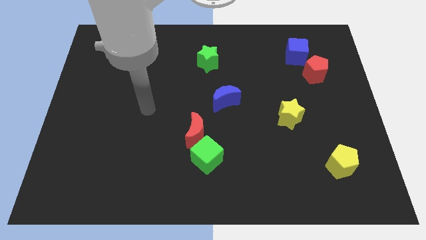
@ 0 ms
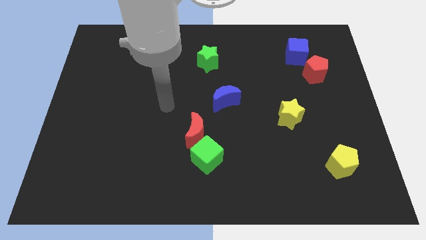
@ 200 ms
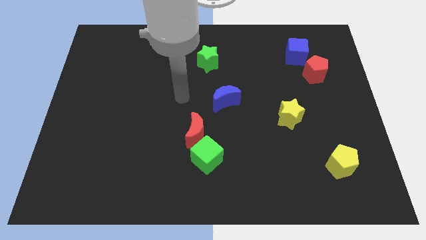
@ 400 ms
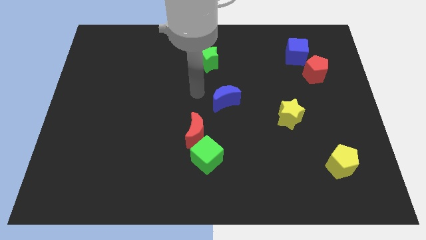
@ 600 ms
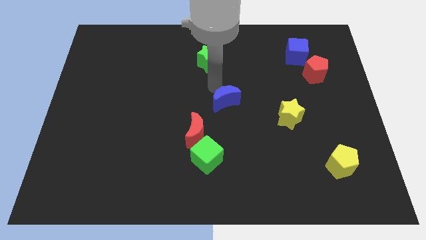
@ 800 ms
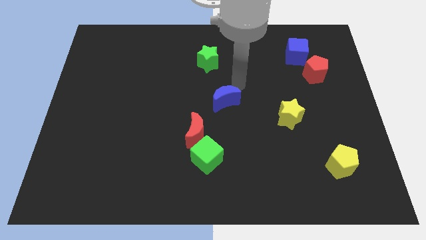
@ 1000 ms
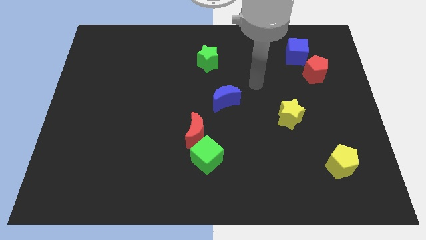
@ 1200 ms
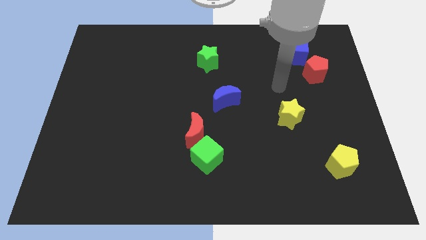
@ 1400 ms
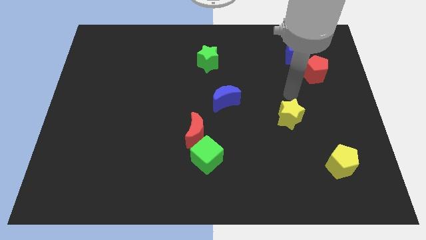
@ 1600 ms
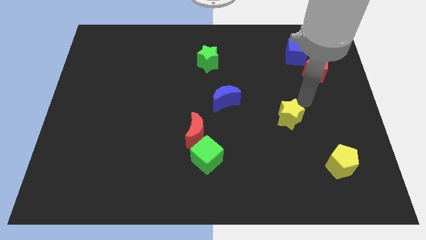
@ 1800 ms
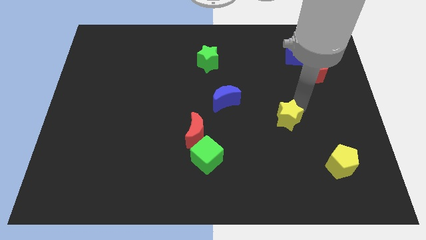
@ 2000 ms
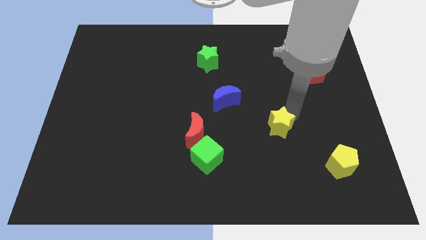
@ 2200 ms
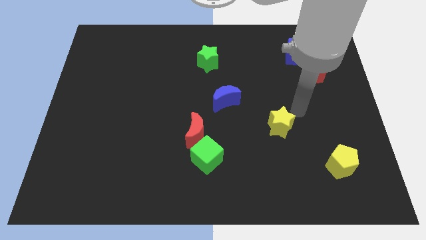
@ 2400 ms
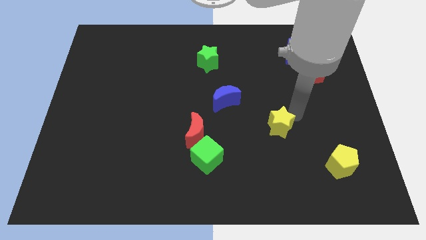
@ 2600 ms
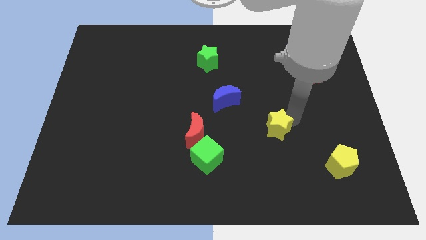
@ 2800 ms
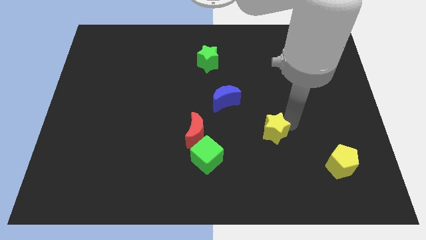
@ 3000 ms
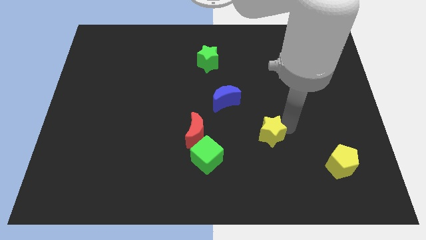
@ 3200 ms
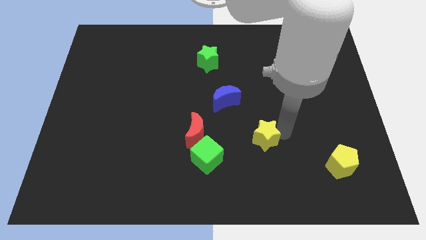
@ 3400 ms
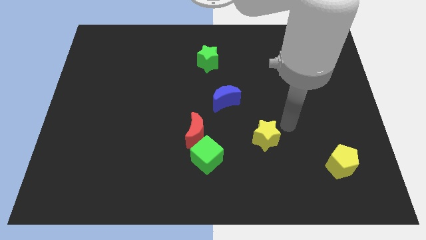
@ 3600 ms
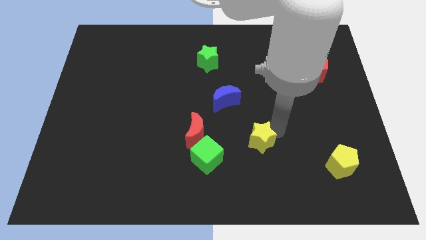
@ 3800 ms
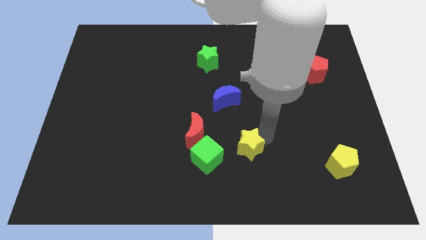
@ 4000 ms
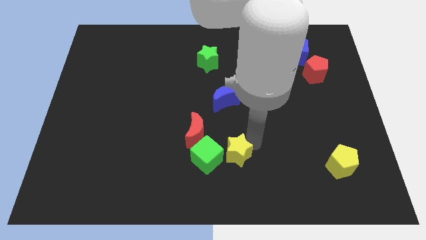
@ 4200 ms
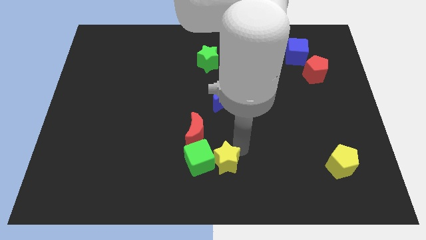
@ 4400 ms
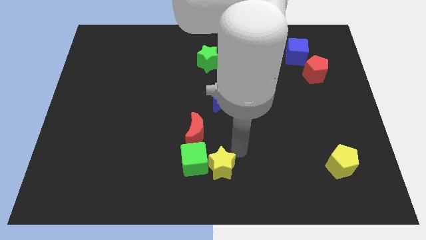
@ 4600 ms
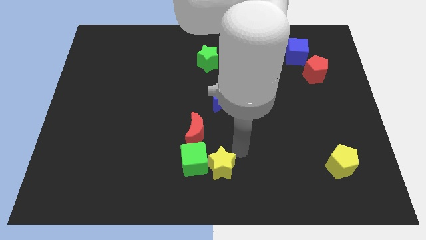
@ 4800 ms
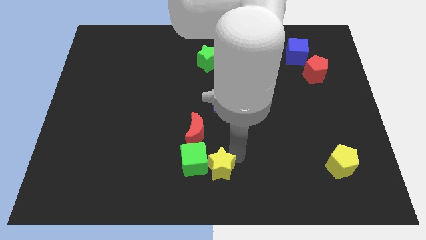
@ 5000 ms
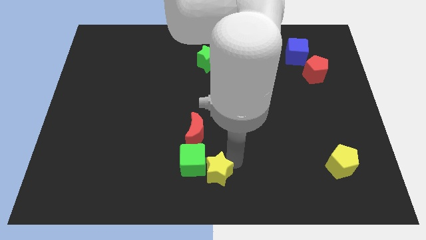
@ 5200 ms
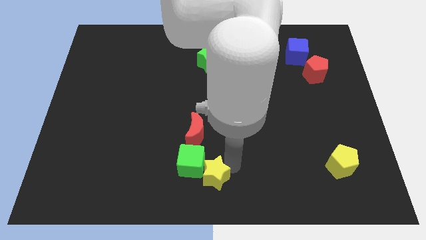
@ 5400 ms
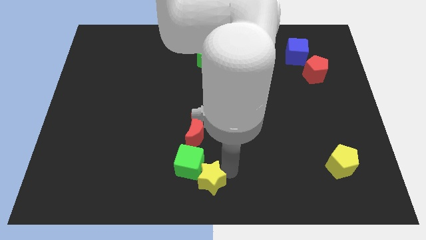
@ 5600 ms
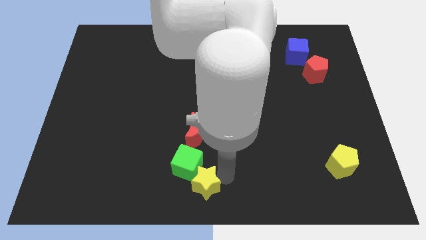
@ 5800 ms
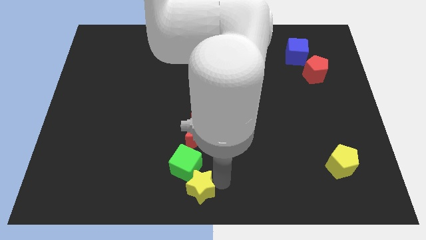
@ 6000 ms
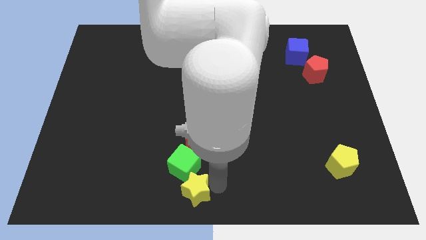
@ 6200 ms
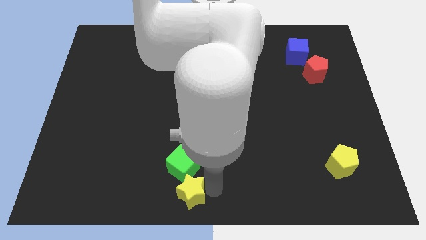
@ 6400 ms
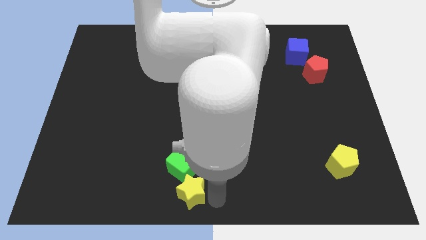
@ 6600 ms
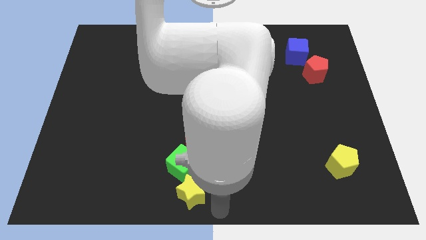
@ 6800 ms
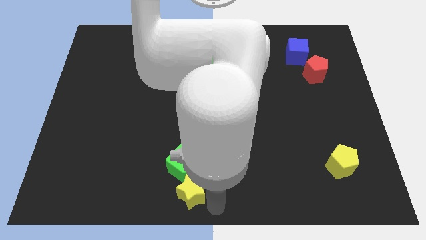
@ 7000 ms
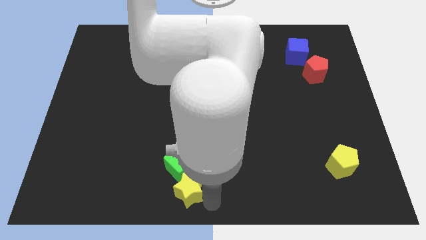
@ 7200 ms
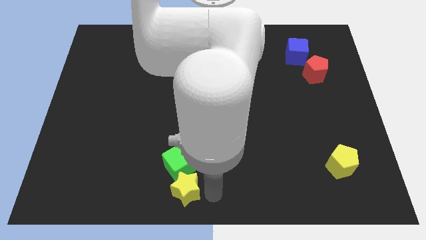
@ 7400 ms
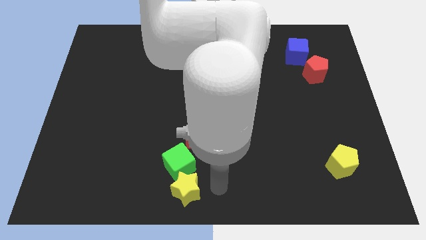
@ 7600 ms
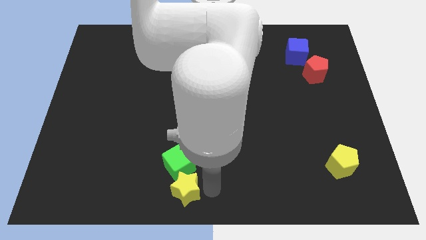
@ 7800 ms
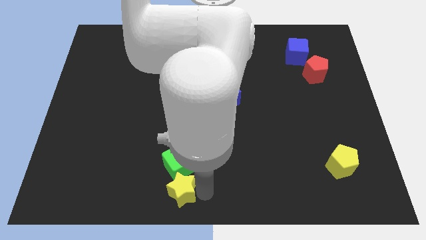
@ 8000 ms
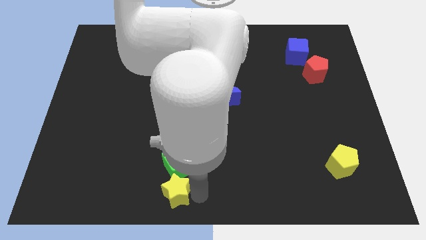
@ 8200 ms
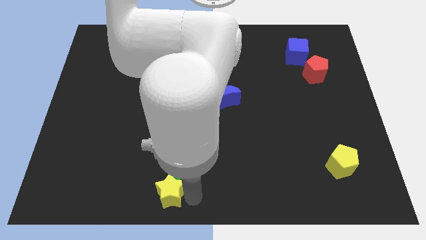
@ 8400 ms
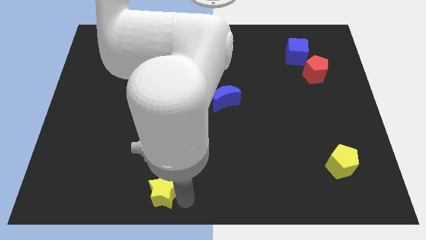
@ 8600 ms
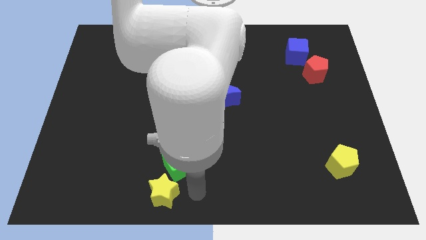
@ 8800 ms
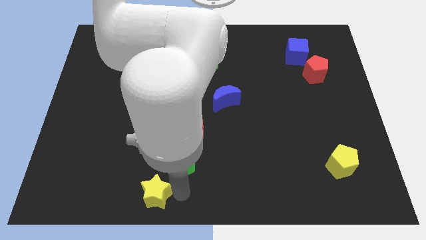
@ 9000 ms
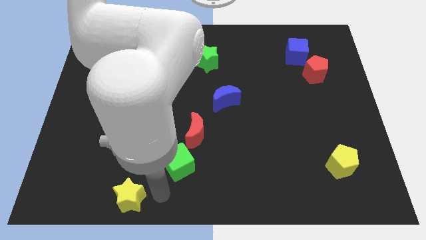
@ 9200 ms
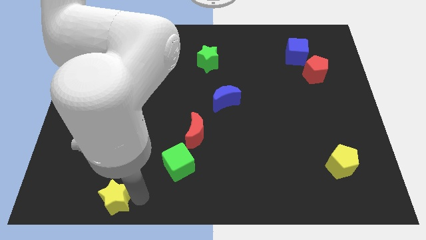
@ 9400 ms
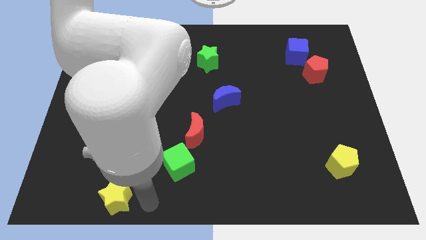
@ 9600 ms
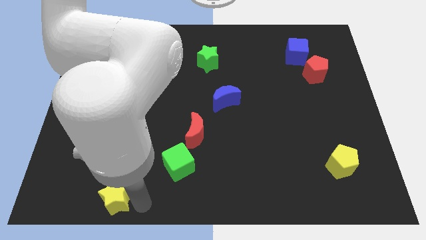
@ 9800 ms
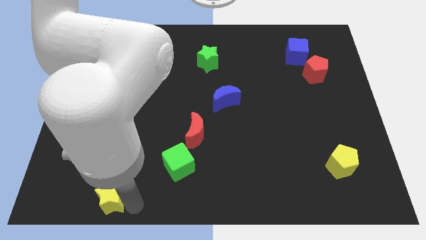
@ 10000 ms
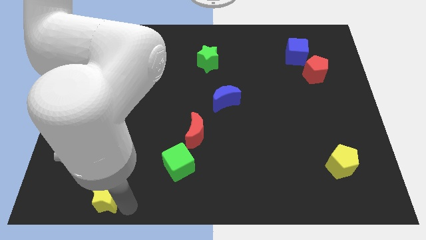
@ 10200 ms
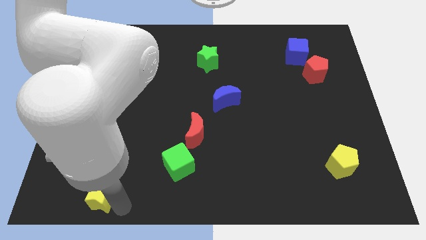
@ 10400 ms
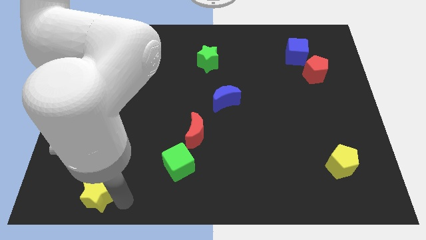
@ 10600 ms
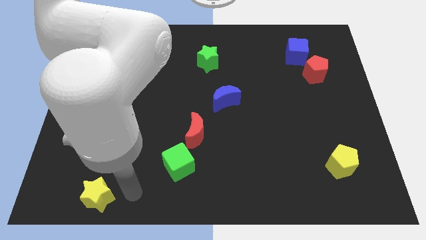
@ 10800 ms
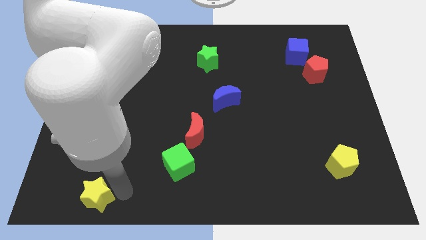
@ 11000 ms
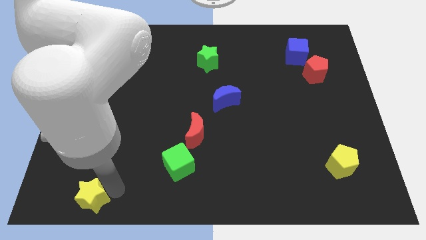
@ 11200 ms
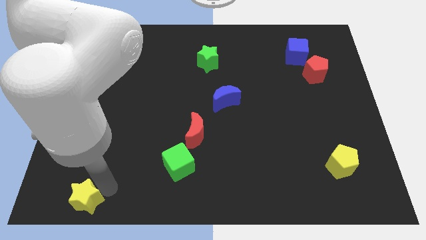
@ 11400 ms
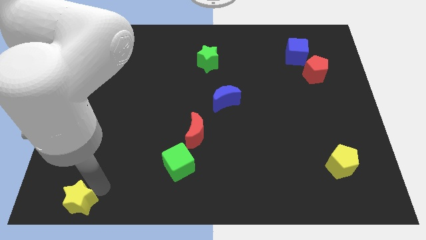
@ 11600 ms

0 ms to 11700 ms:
push the yellow star to the bottom left of the board
